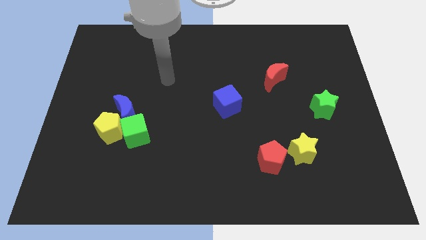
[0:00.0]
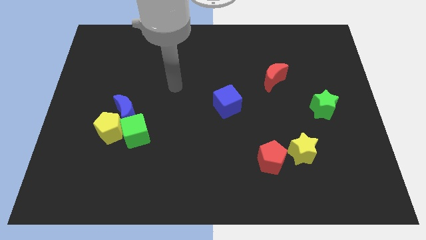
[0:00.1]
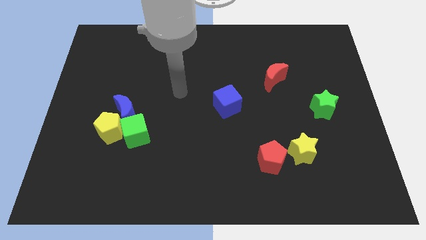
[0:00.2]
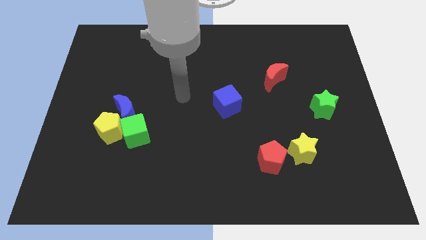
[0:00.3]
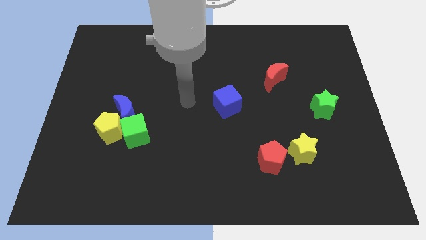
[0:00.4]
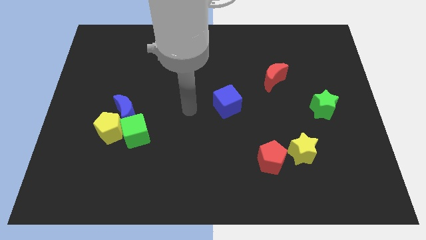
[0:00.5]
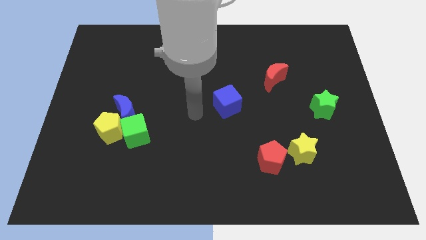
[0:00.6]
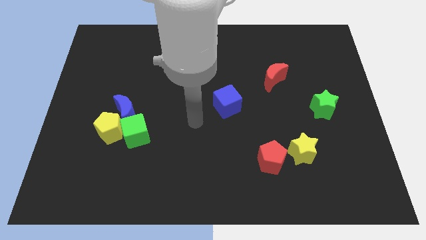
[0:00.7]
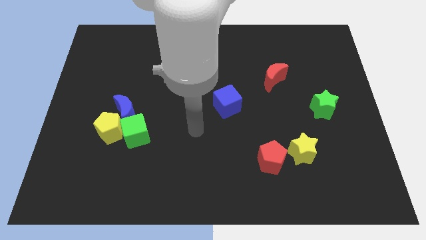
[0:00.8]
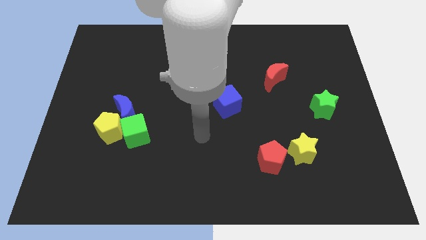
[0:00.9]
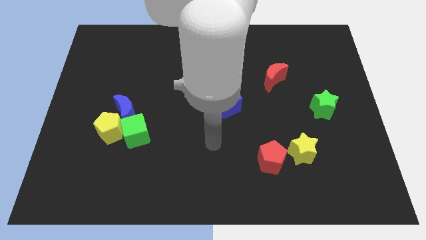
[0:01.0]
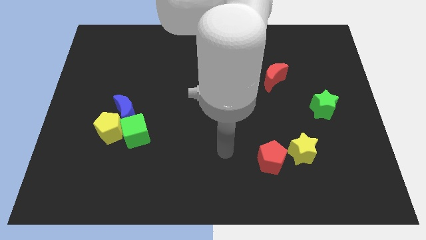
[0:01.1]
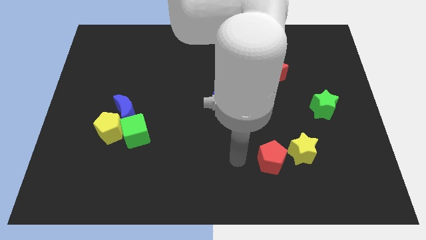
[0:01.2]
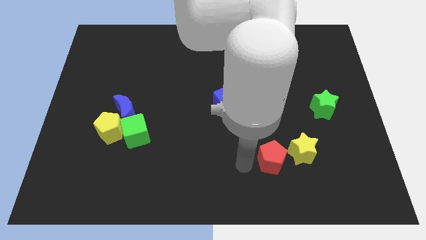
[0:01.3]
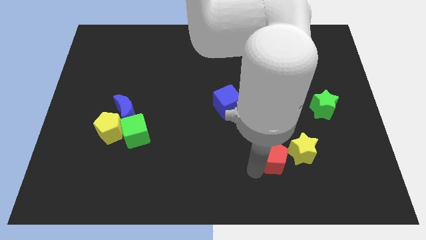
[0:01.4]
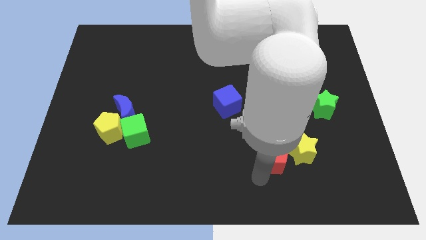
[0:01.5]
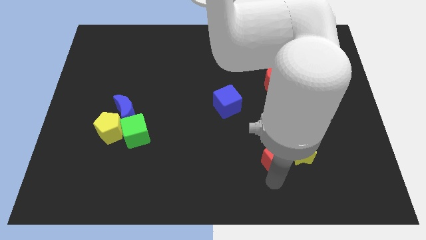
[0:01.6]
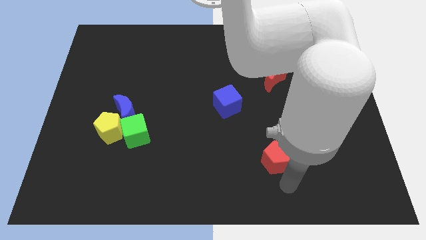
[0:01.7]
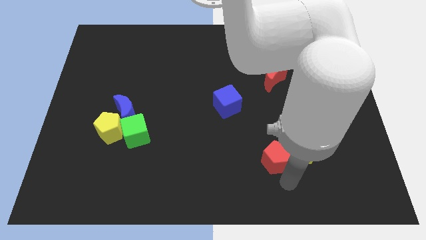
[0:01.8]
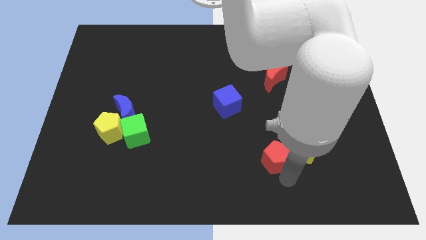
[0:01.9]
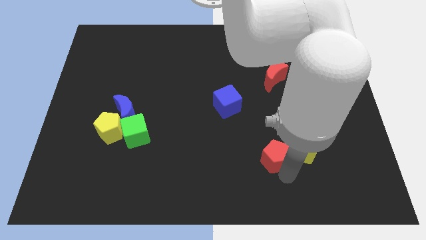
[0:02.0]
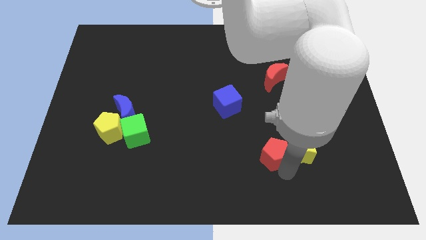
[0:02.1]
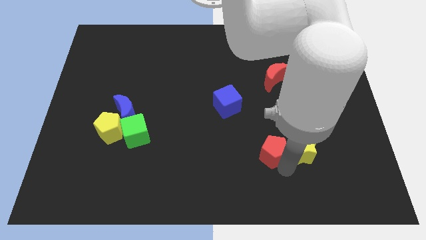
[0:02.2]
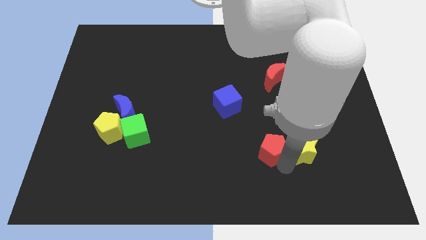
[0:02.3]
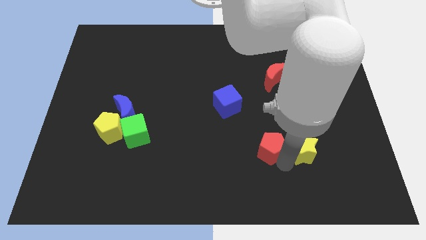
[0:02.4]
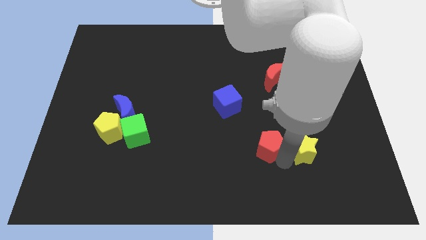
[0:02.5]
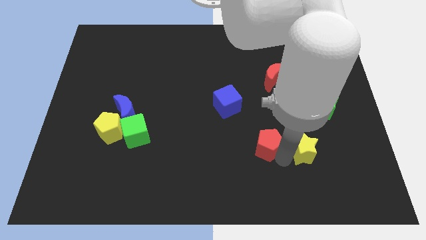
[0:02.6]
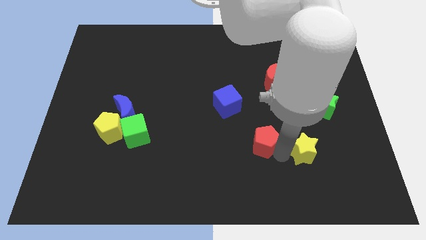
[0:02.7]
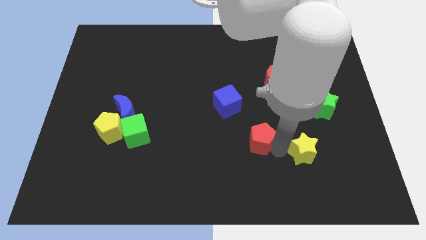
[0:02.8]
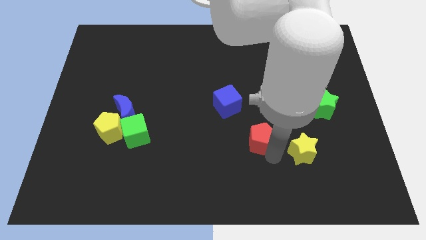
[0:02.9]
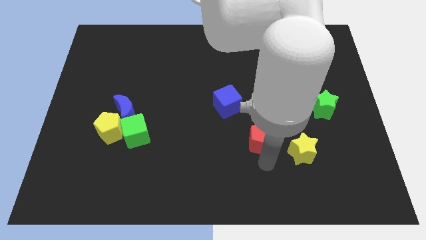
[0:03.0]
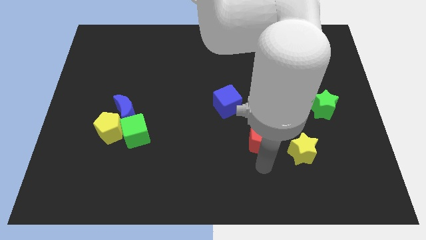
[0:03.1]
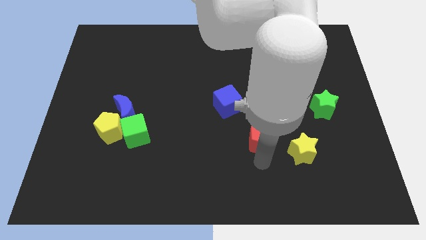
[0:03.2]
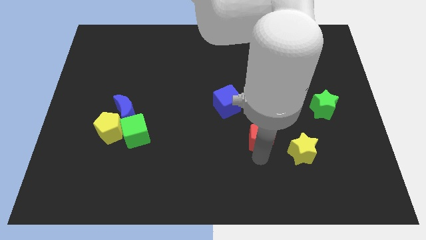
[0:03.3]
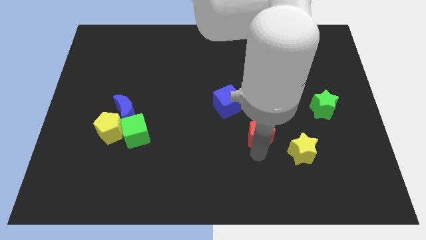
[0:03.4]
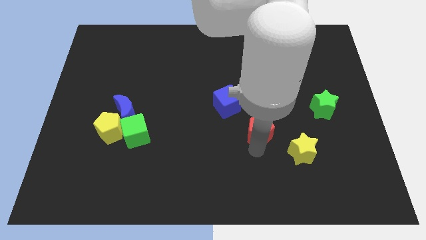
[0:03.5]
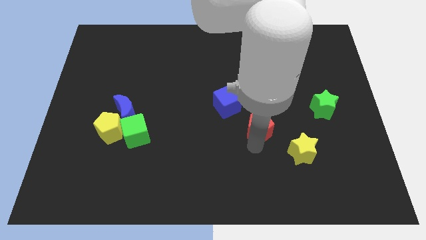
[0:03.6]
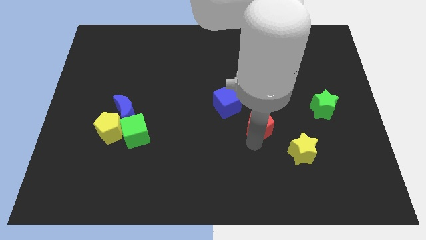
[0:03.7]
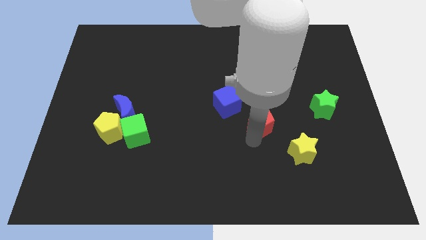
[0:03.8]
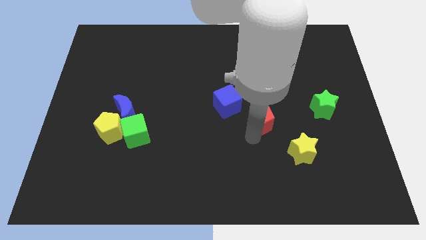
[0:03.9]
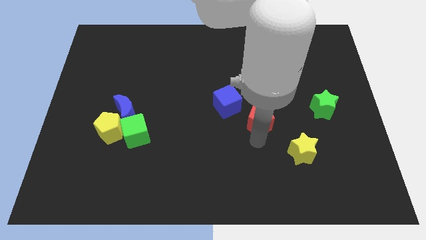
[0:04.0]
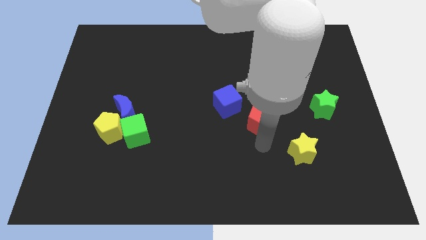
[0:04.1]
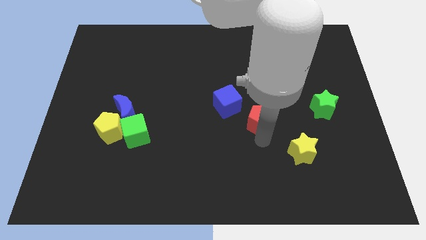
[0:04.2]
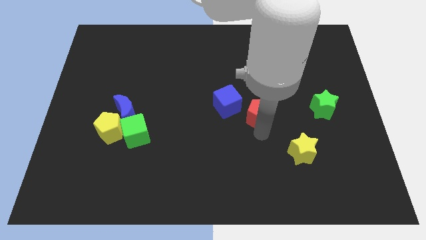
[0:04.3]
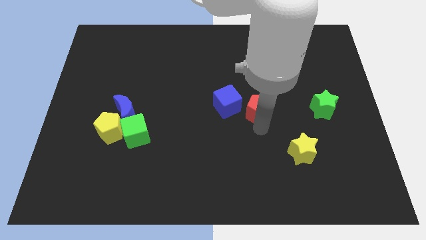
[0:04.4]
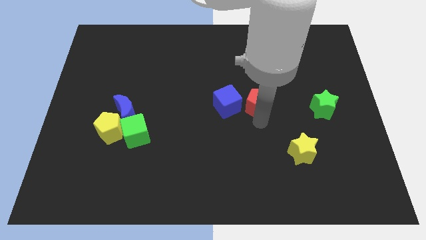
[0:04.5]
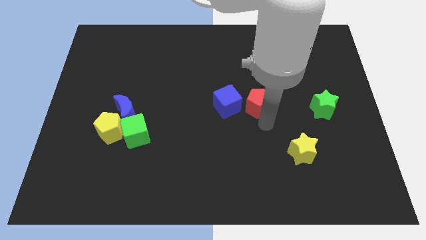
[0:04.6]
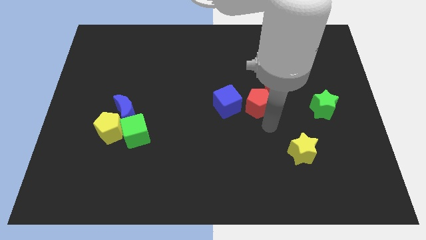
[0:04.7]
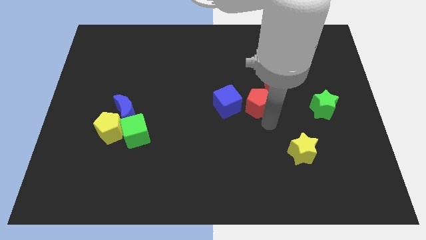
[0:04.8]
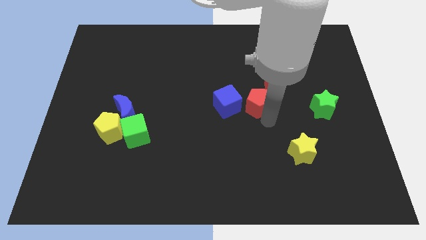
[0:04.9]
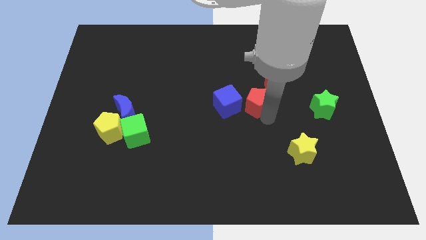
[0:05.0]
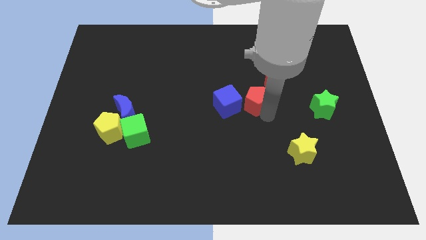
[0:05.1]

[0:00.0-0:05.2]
push the red pentagon to the top right of the blue cube

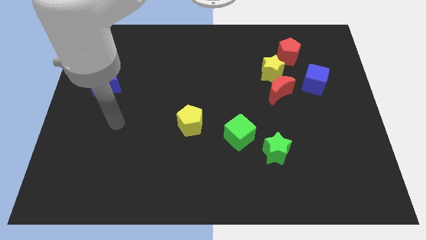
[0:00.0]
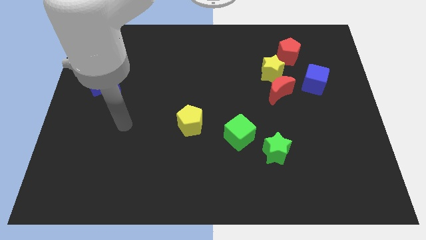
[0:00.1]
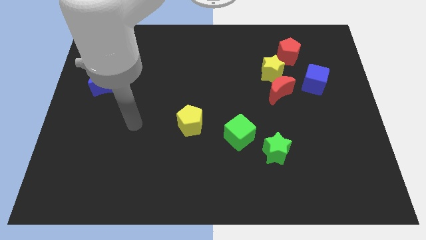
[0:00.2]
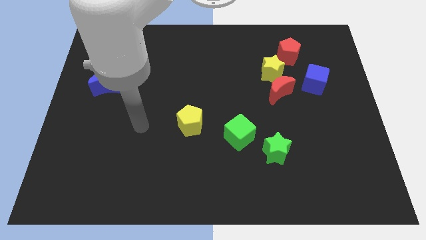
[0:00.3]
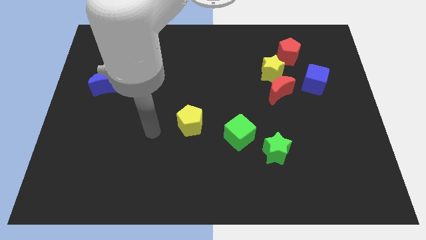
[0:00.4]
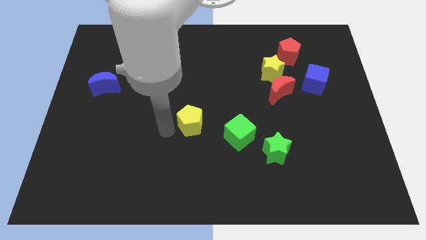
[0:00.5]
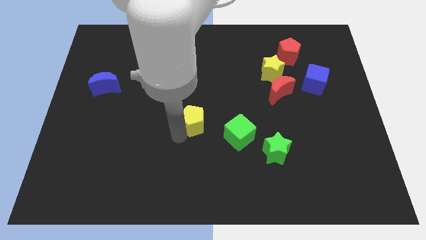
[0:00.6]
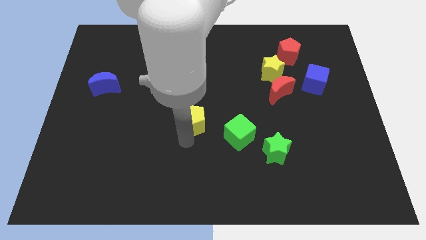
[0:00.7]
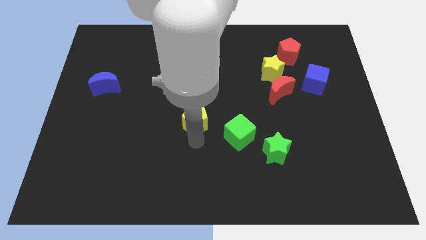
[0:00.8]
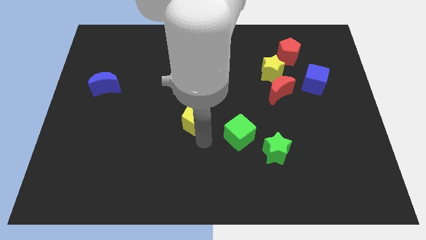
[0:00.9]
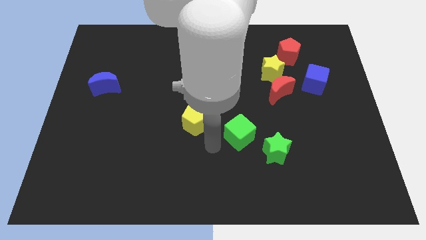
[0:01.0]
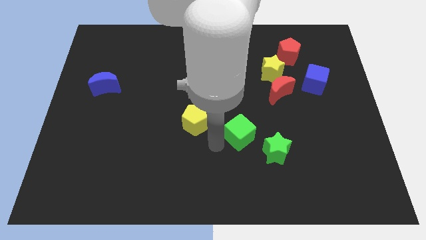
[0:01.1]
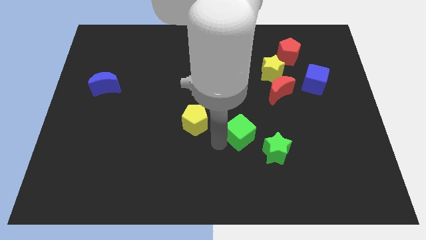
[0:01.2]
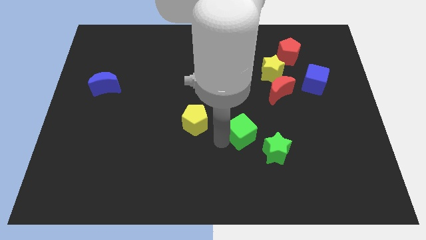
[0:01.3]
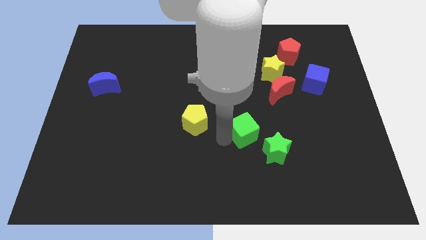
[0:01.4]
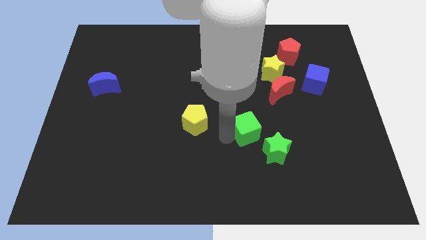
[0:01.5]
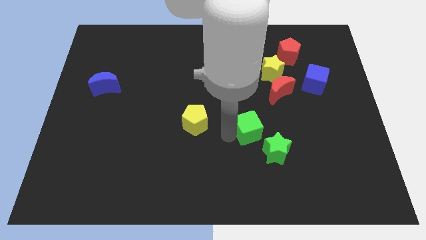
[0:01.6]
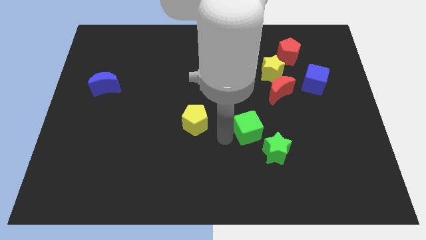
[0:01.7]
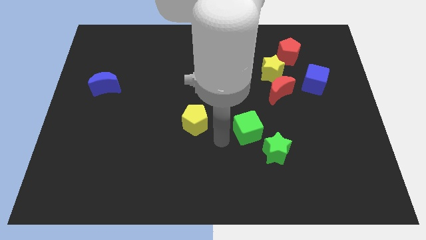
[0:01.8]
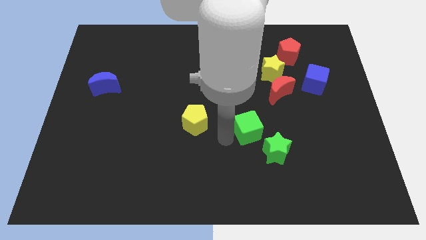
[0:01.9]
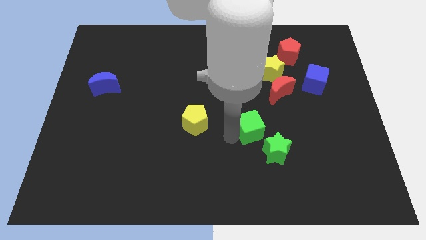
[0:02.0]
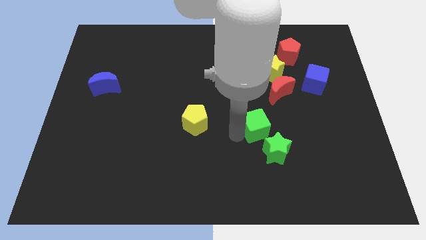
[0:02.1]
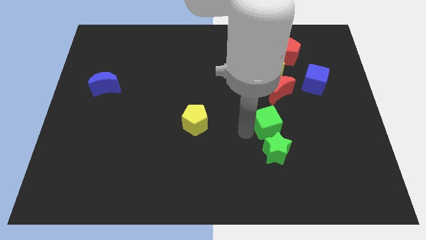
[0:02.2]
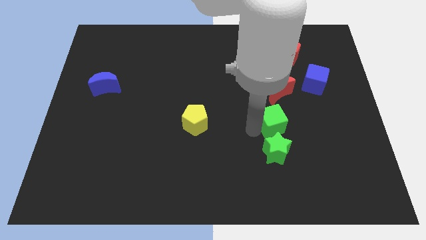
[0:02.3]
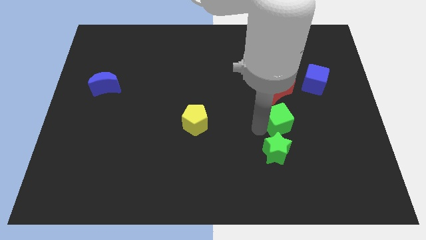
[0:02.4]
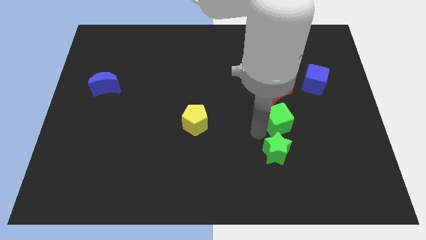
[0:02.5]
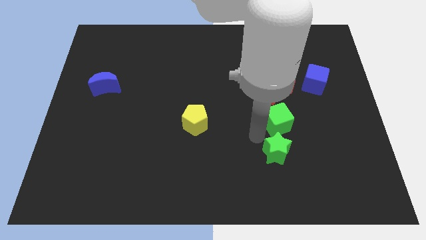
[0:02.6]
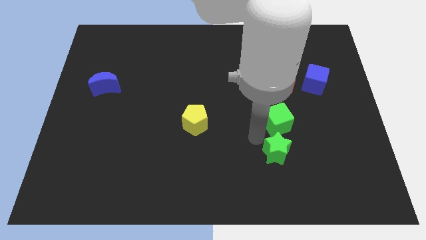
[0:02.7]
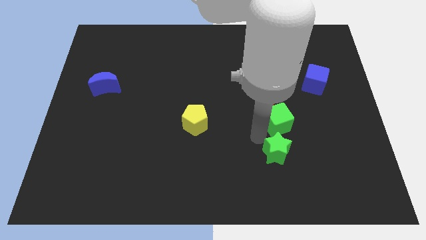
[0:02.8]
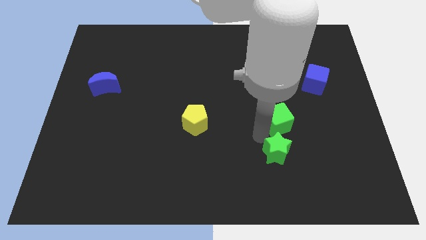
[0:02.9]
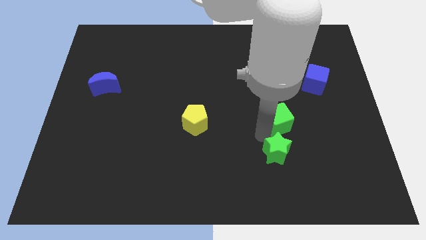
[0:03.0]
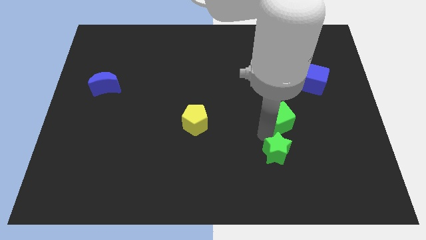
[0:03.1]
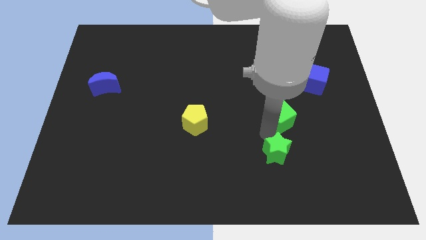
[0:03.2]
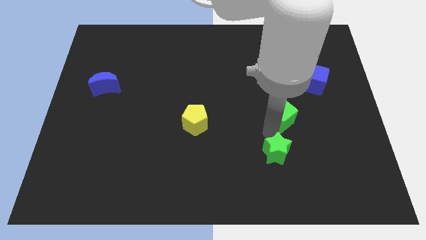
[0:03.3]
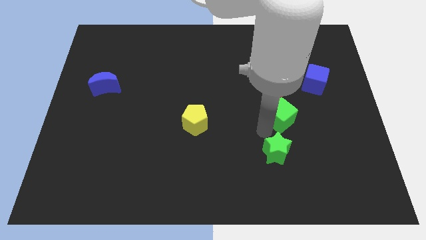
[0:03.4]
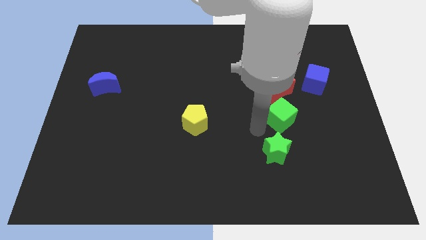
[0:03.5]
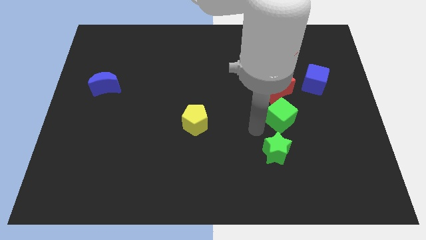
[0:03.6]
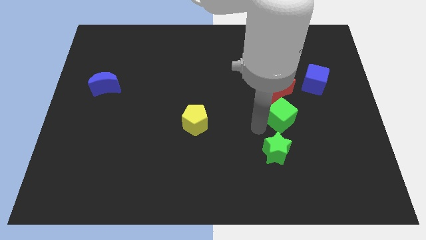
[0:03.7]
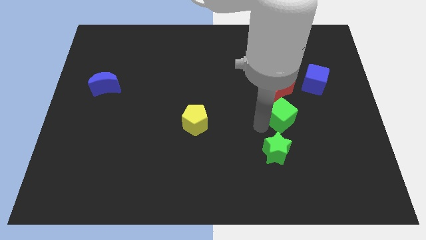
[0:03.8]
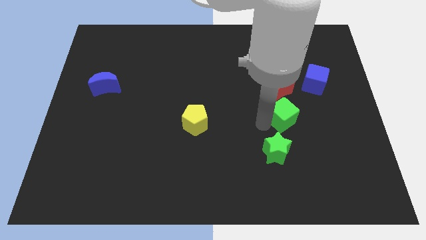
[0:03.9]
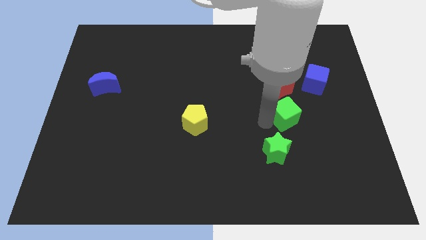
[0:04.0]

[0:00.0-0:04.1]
slide the green cube to the bottom right of the red moon
